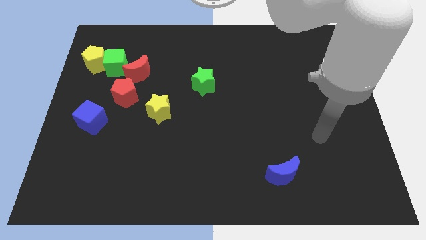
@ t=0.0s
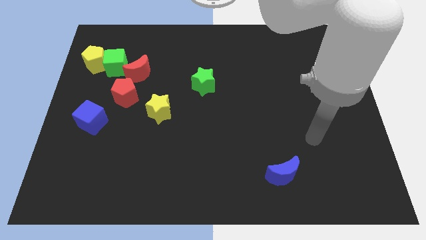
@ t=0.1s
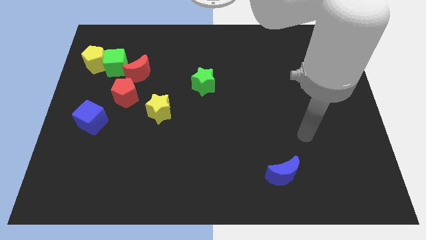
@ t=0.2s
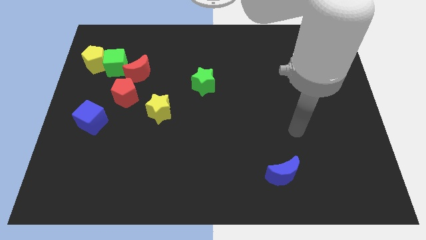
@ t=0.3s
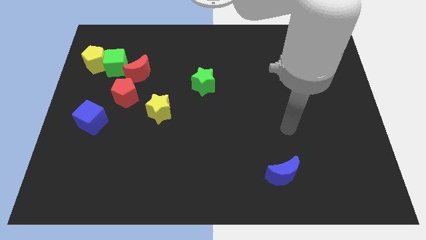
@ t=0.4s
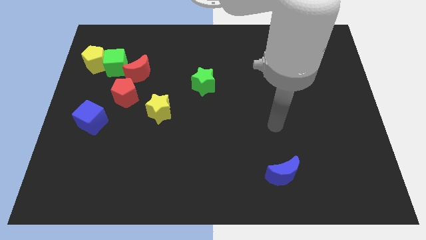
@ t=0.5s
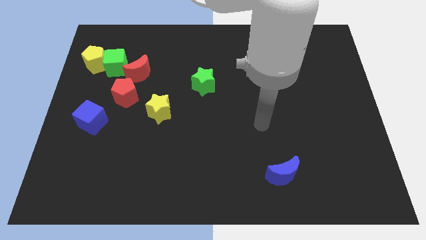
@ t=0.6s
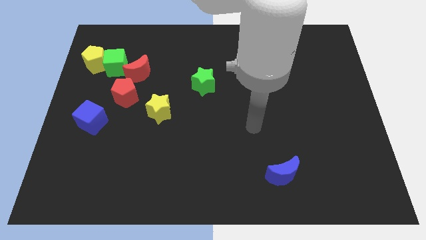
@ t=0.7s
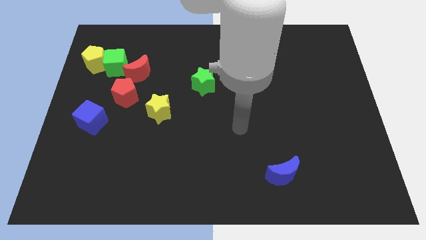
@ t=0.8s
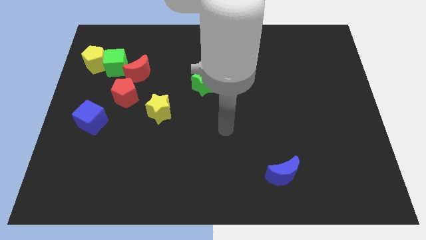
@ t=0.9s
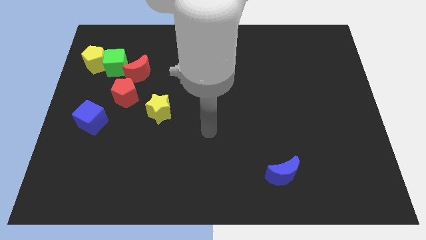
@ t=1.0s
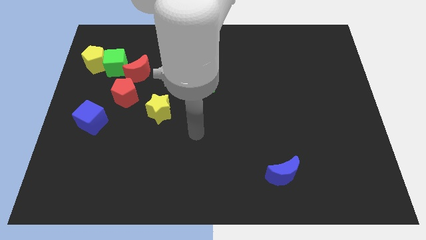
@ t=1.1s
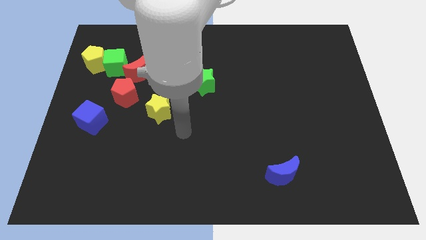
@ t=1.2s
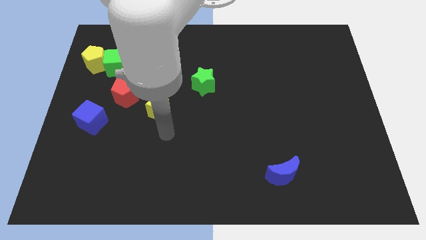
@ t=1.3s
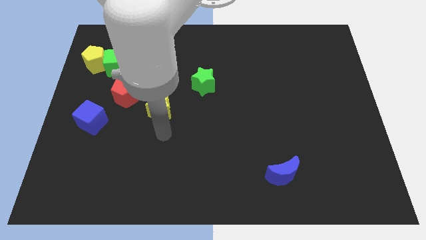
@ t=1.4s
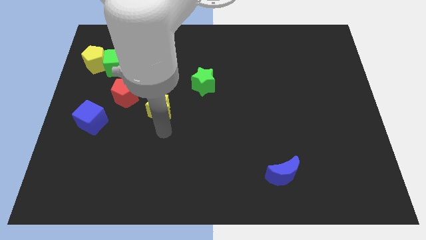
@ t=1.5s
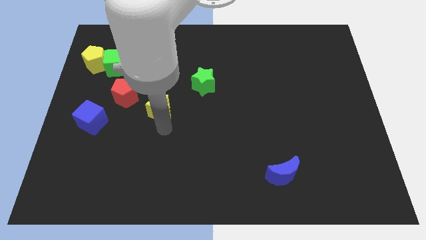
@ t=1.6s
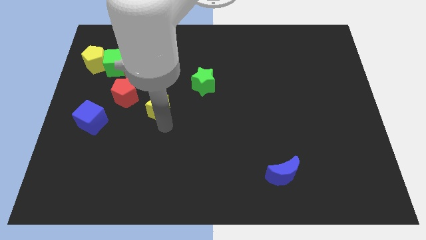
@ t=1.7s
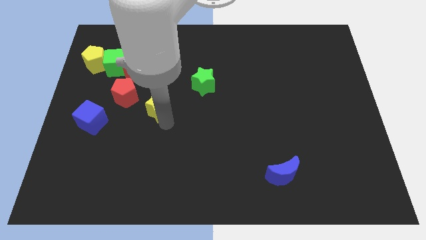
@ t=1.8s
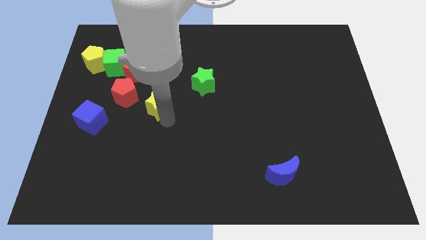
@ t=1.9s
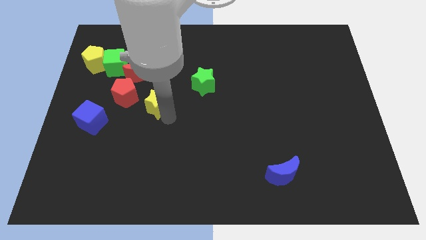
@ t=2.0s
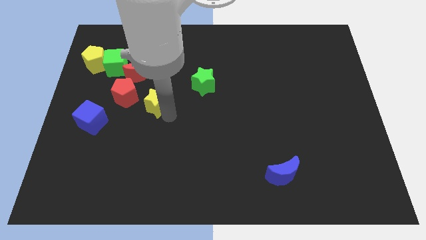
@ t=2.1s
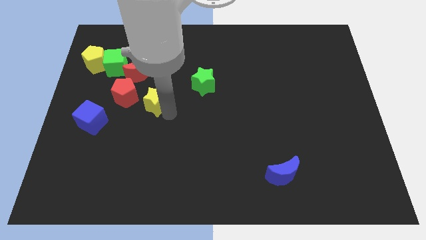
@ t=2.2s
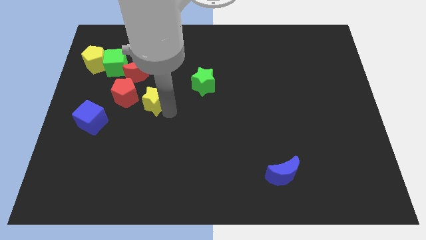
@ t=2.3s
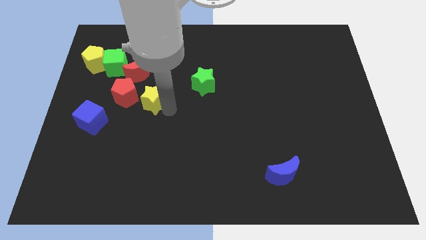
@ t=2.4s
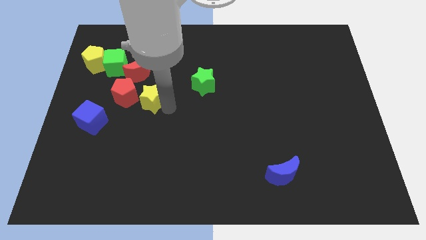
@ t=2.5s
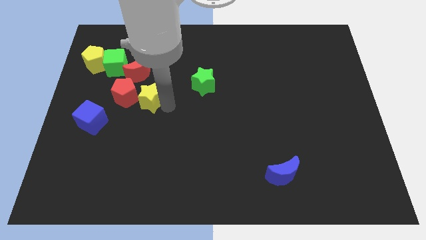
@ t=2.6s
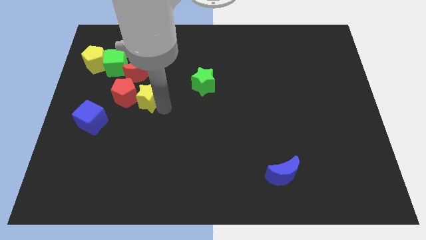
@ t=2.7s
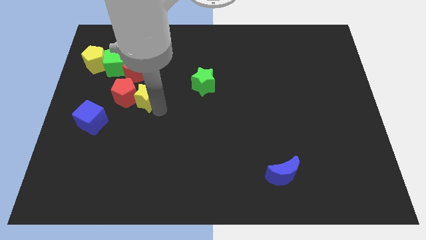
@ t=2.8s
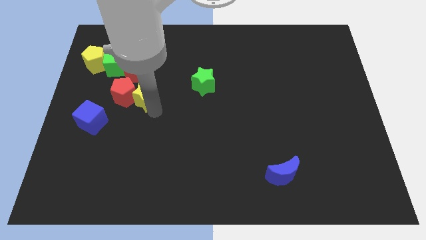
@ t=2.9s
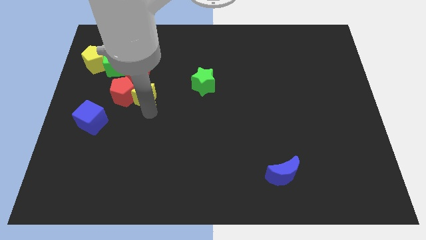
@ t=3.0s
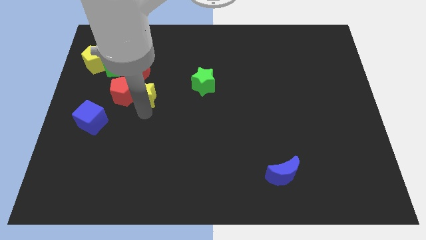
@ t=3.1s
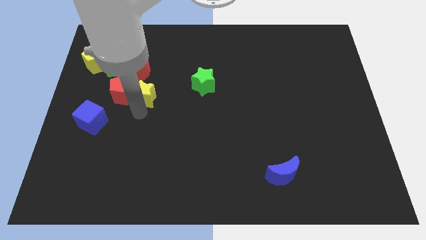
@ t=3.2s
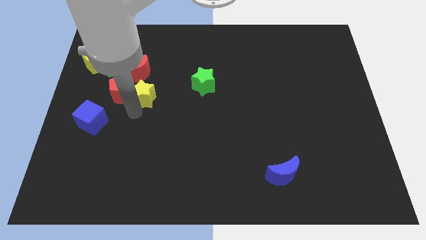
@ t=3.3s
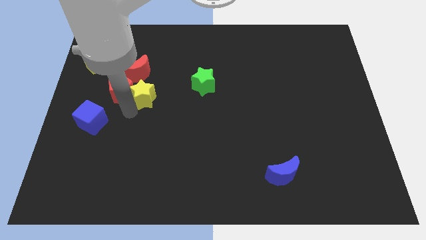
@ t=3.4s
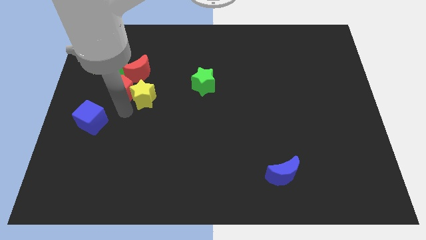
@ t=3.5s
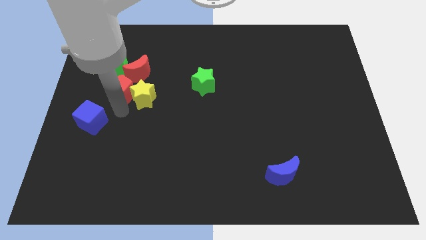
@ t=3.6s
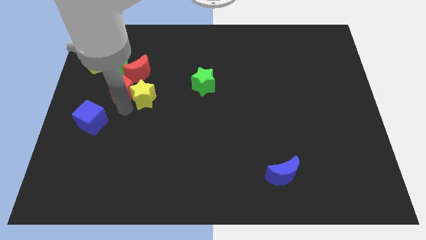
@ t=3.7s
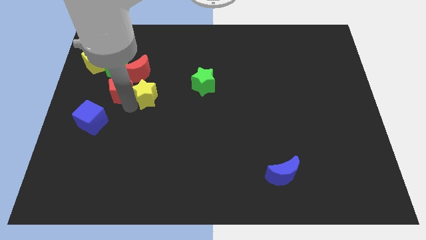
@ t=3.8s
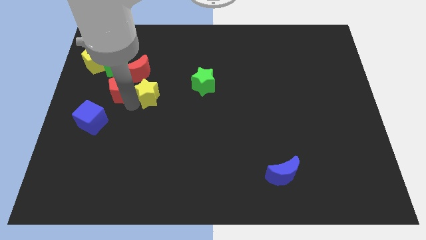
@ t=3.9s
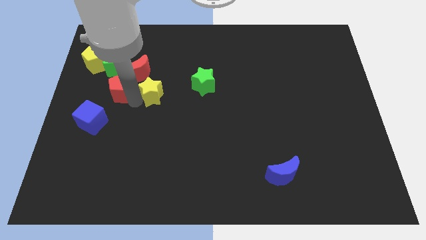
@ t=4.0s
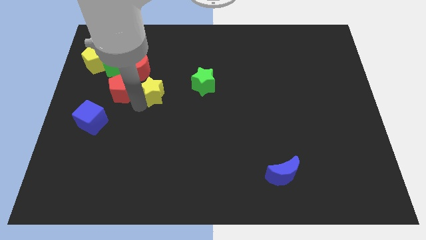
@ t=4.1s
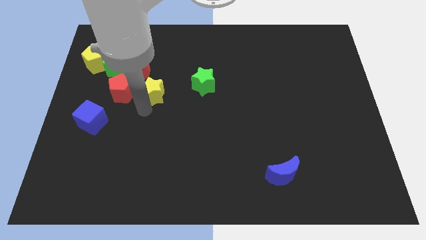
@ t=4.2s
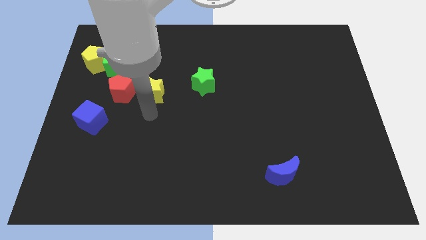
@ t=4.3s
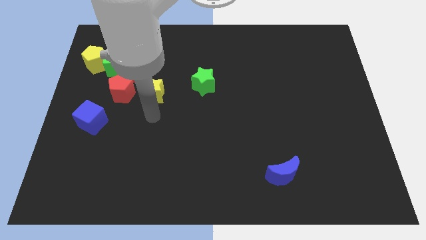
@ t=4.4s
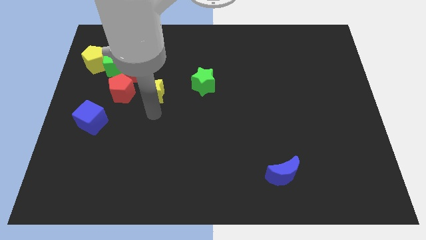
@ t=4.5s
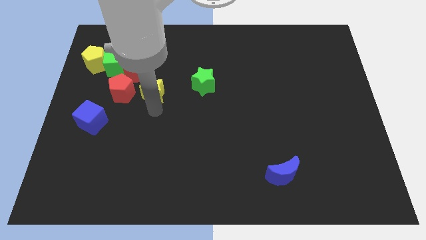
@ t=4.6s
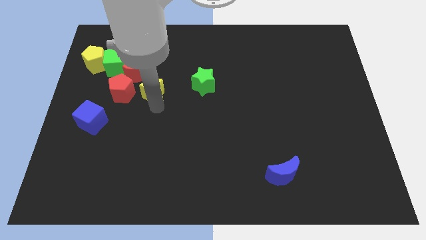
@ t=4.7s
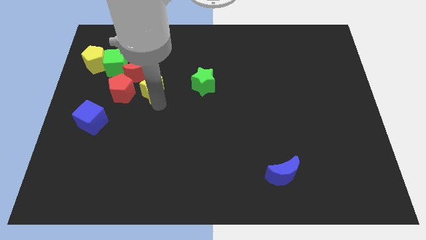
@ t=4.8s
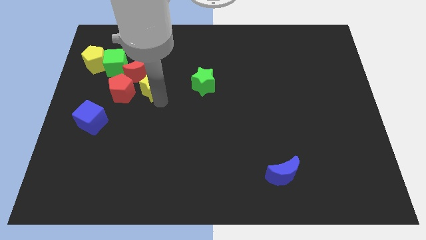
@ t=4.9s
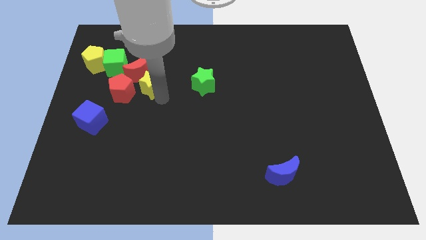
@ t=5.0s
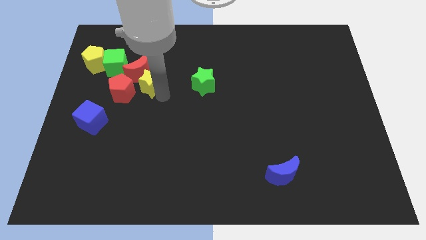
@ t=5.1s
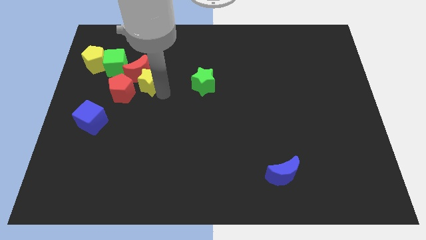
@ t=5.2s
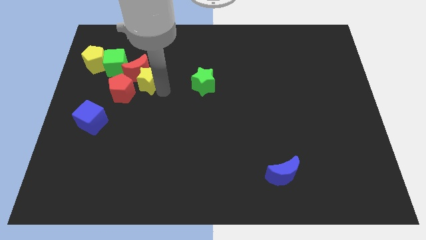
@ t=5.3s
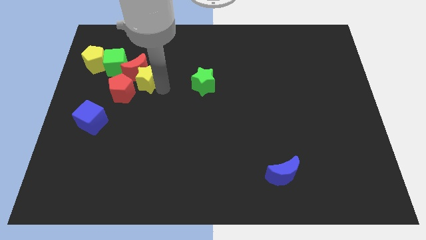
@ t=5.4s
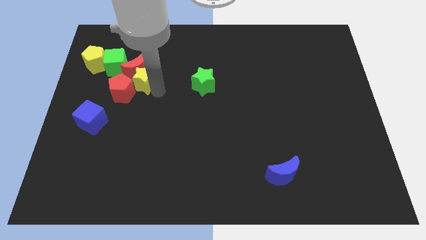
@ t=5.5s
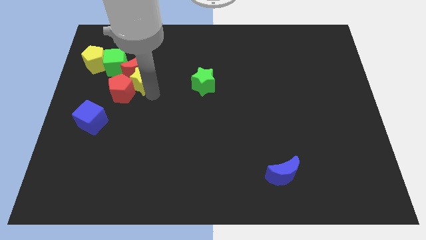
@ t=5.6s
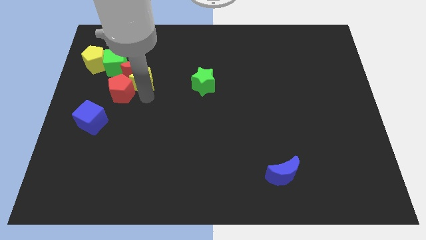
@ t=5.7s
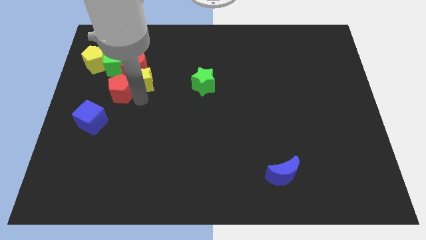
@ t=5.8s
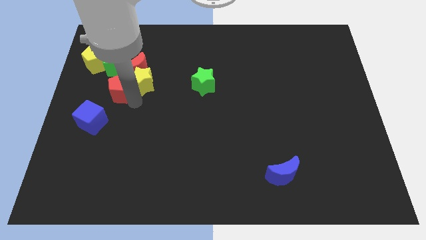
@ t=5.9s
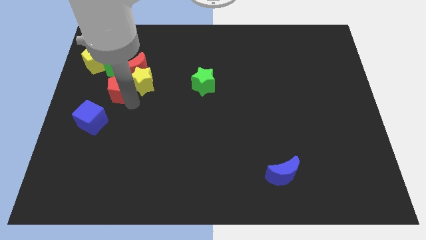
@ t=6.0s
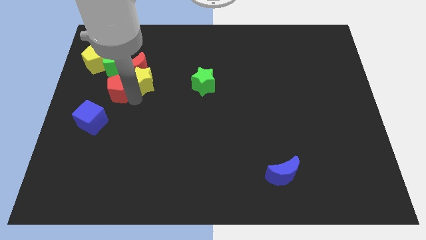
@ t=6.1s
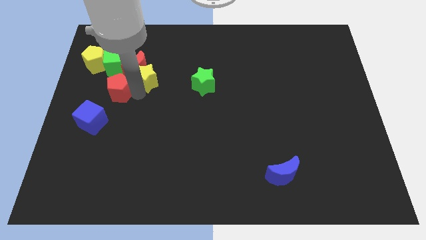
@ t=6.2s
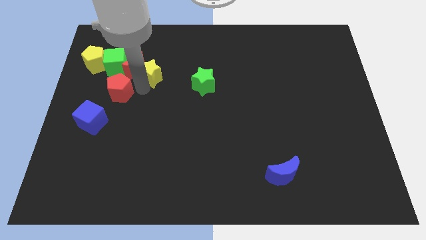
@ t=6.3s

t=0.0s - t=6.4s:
put the yellow star to the right side of the green cube
